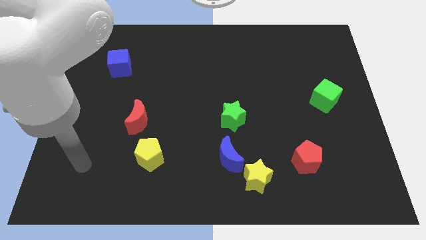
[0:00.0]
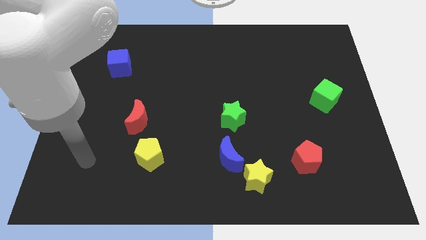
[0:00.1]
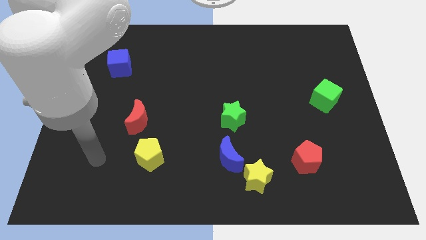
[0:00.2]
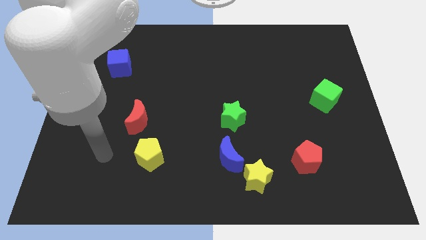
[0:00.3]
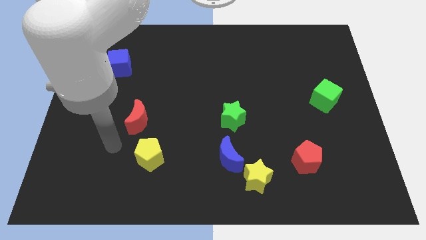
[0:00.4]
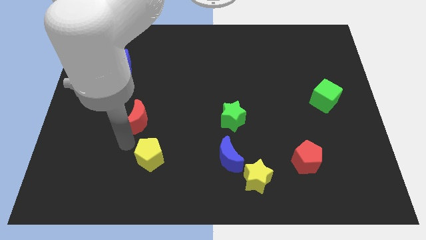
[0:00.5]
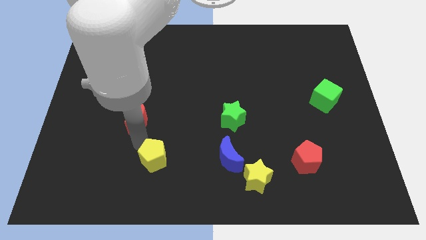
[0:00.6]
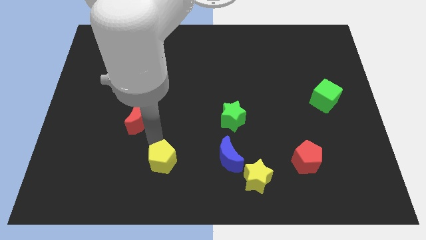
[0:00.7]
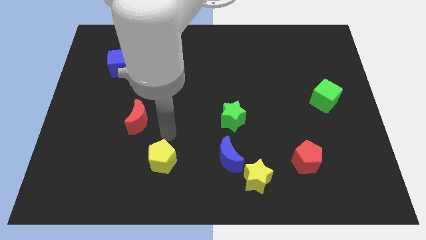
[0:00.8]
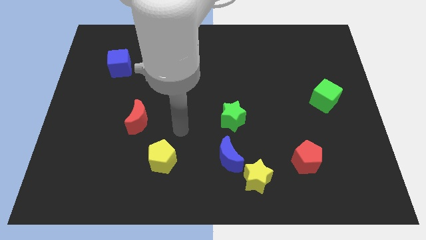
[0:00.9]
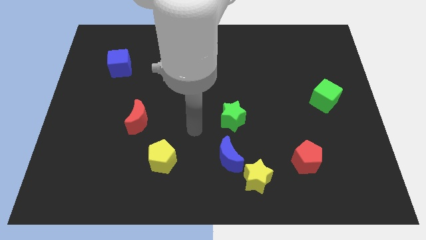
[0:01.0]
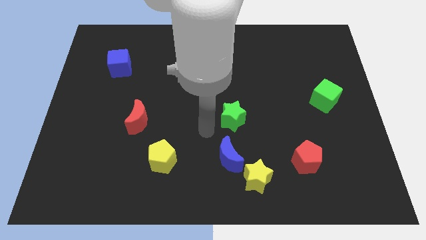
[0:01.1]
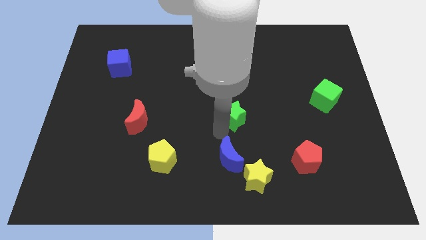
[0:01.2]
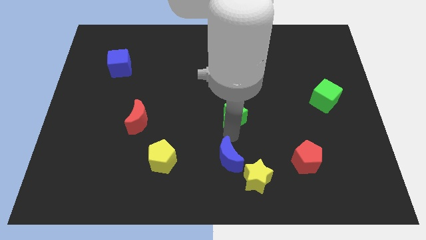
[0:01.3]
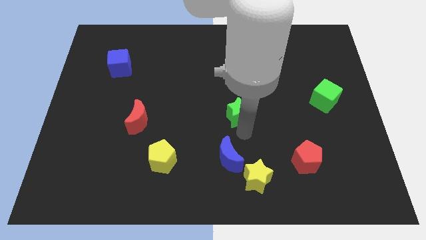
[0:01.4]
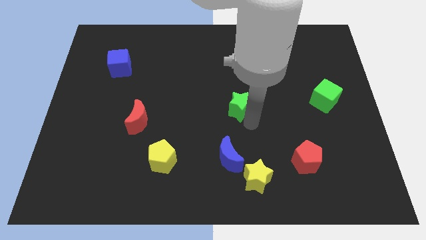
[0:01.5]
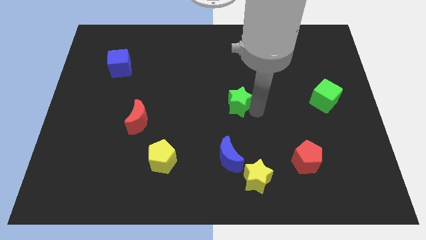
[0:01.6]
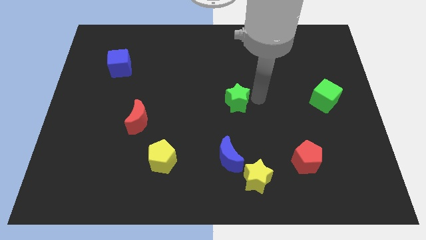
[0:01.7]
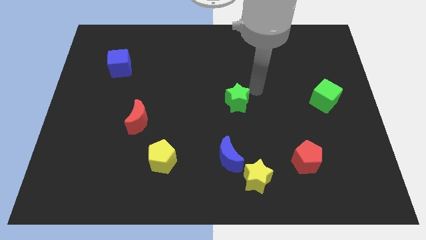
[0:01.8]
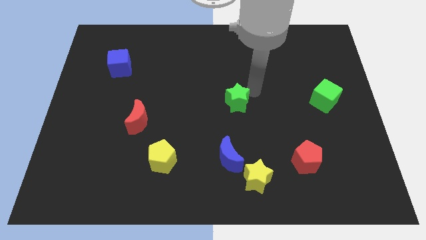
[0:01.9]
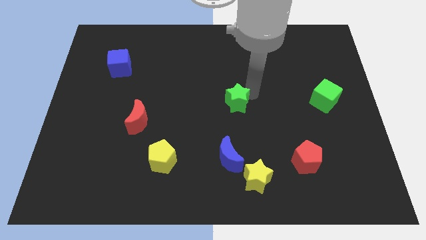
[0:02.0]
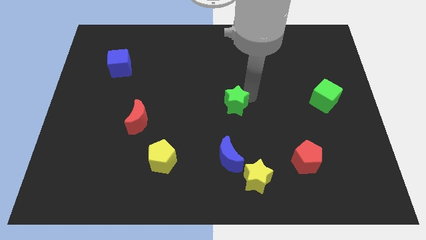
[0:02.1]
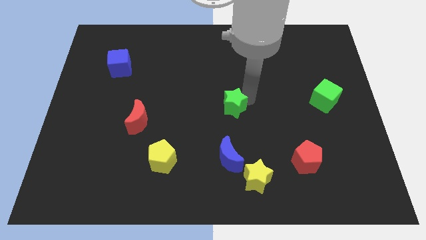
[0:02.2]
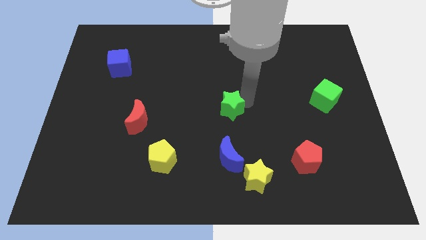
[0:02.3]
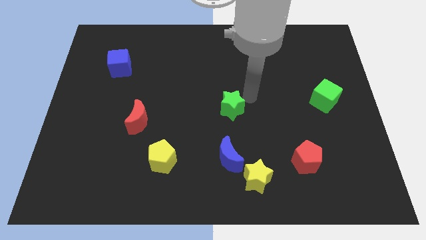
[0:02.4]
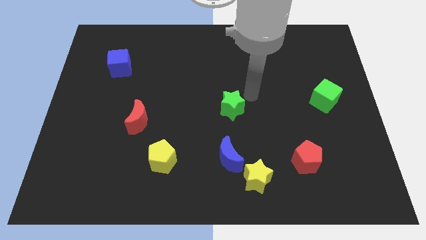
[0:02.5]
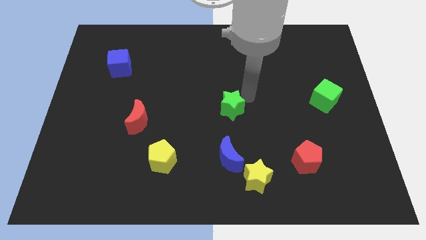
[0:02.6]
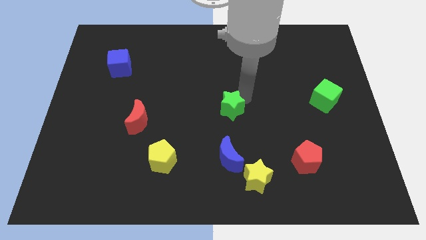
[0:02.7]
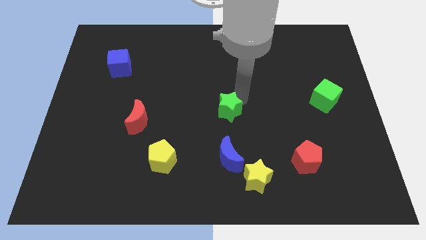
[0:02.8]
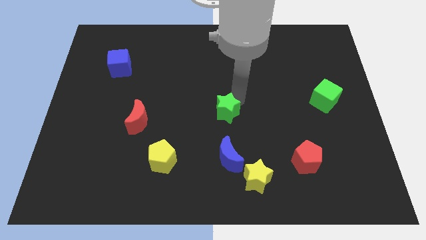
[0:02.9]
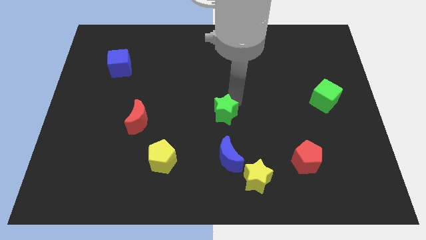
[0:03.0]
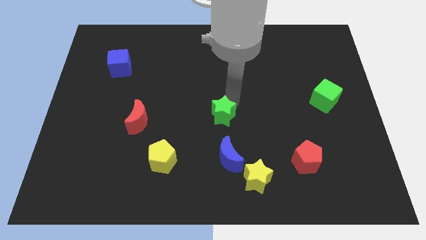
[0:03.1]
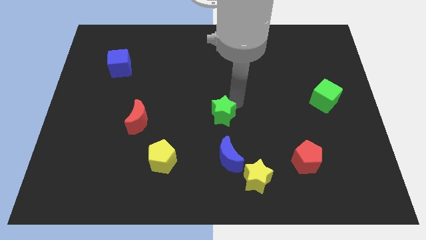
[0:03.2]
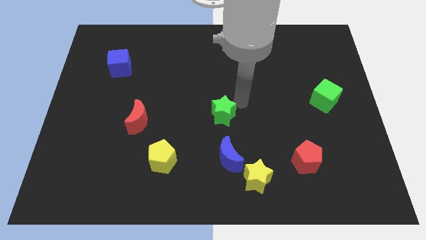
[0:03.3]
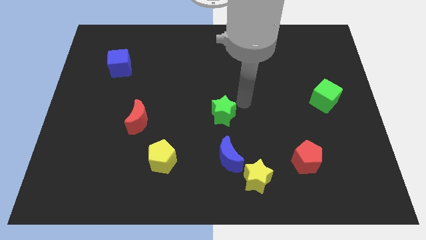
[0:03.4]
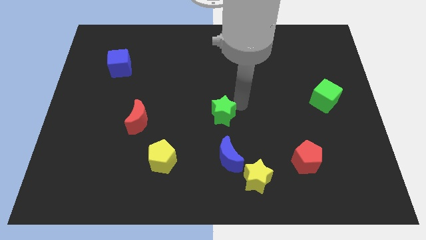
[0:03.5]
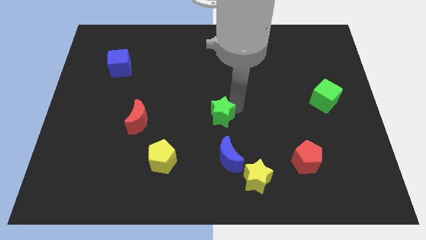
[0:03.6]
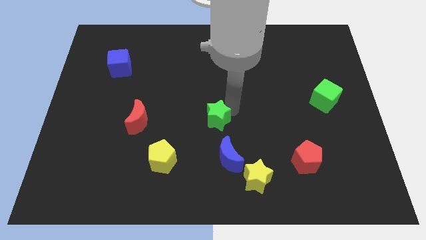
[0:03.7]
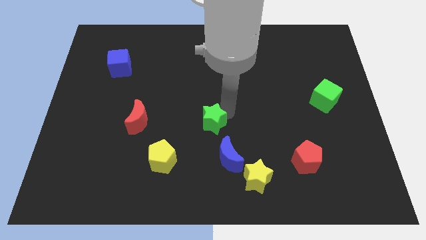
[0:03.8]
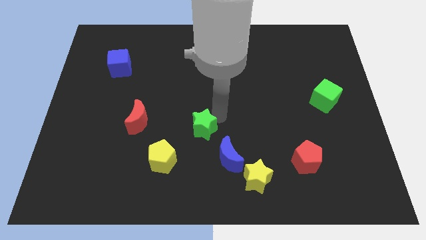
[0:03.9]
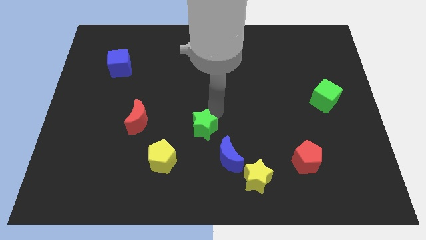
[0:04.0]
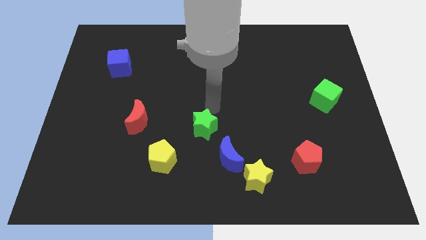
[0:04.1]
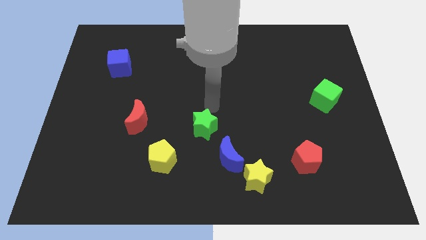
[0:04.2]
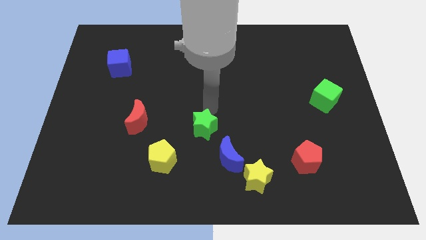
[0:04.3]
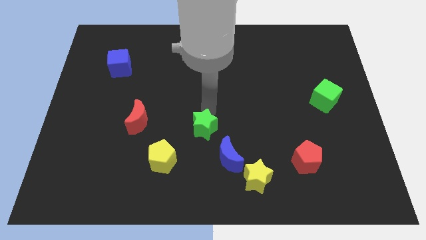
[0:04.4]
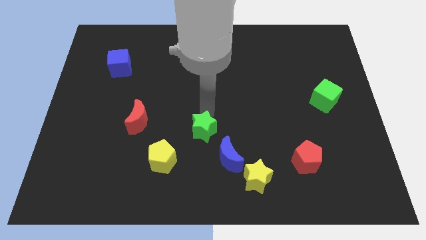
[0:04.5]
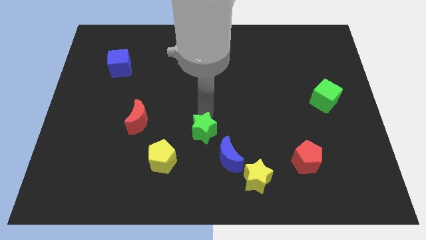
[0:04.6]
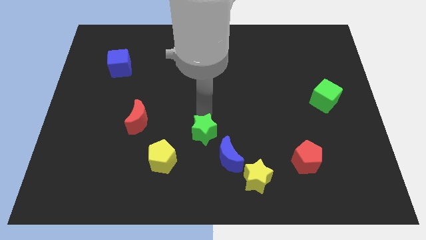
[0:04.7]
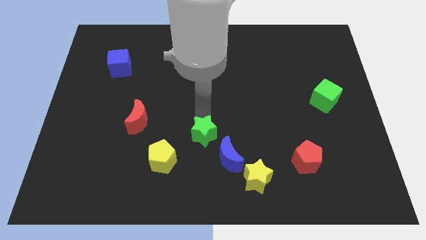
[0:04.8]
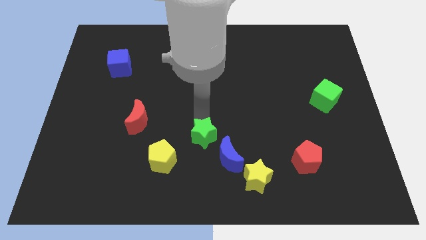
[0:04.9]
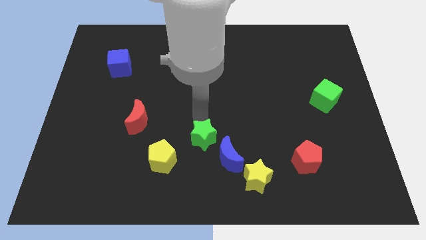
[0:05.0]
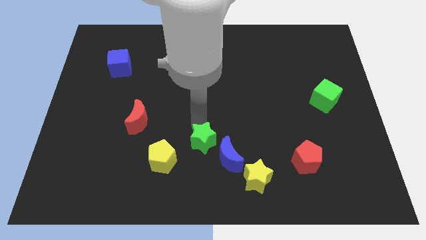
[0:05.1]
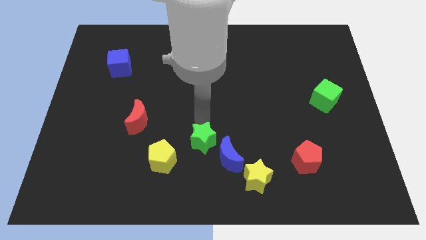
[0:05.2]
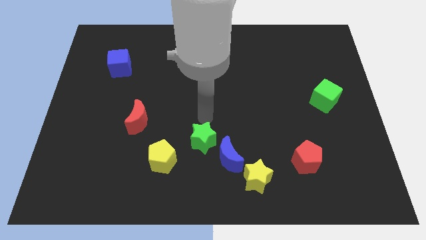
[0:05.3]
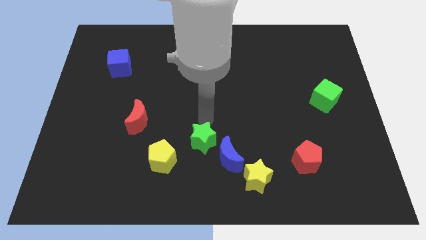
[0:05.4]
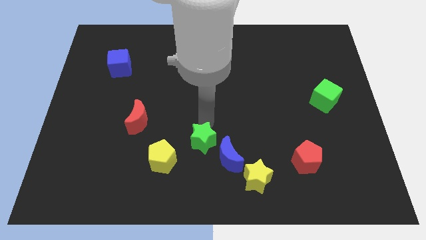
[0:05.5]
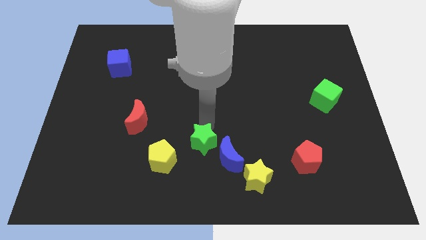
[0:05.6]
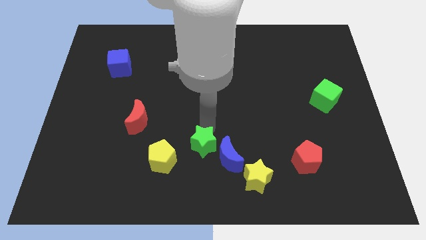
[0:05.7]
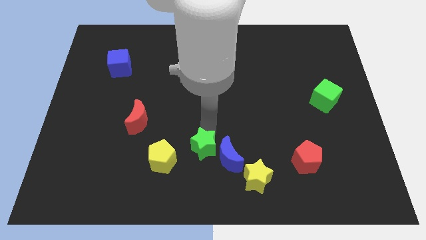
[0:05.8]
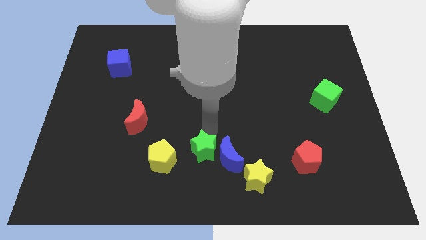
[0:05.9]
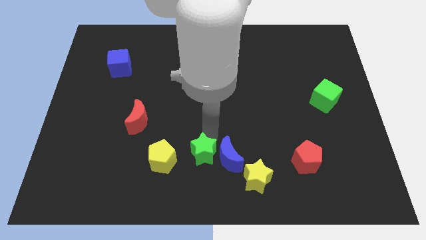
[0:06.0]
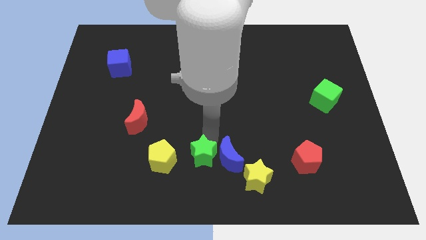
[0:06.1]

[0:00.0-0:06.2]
put the green star to the bottom
